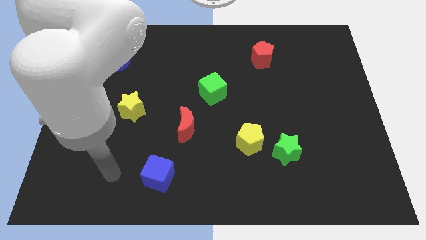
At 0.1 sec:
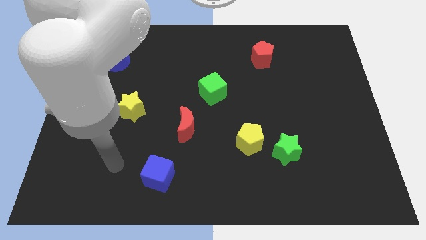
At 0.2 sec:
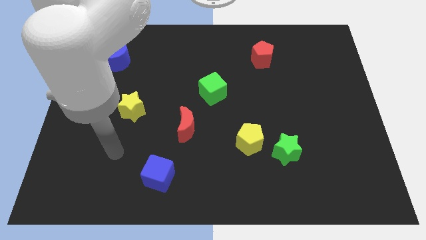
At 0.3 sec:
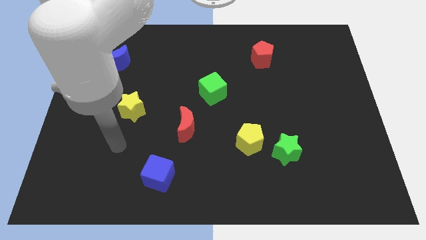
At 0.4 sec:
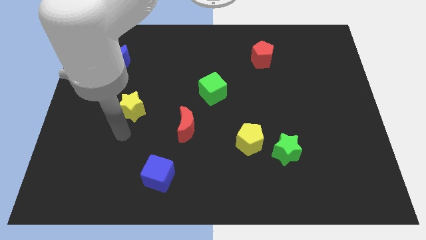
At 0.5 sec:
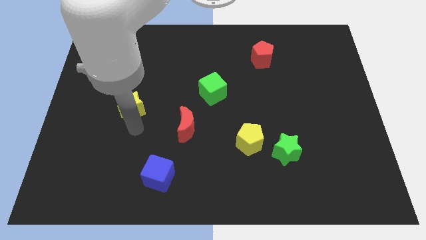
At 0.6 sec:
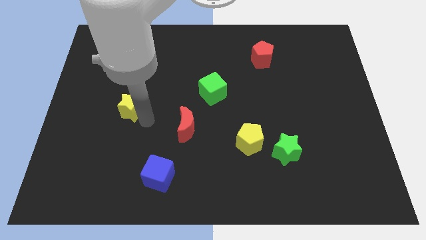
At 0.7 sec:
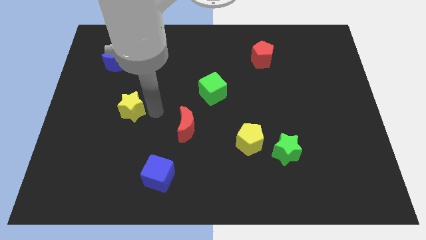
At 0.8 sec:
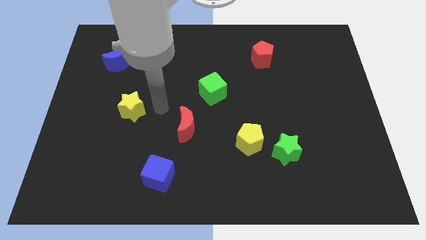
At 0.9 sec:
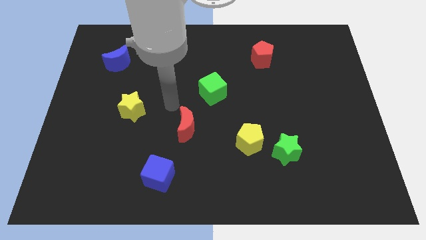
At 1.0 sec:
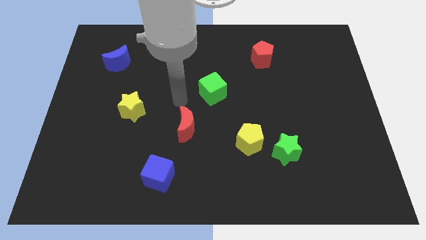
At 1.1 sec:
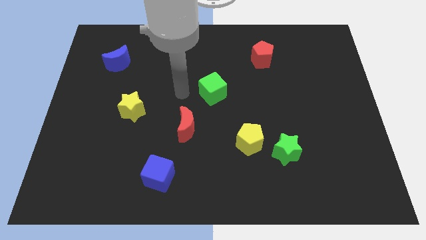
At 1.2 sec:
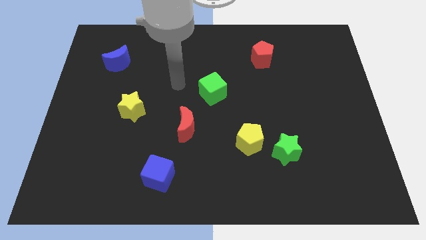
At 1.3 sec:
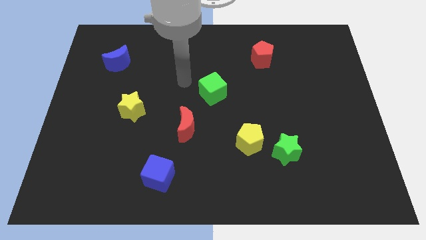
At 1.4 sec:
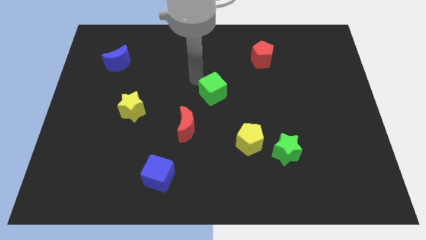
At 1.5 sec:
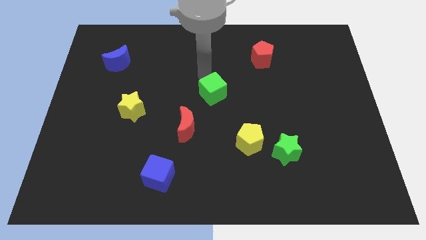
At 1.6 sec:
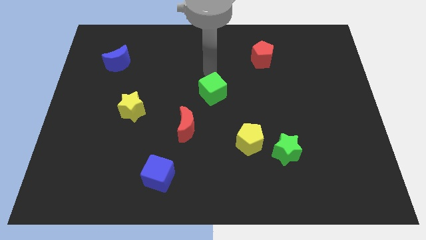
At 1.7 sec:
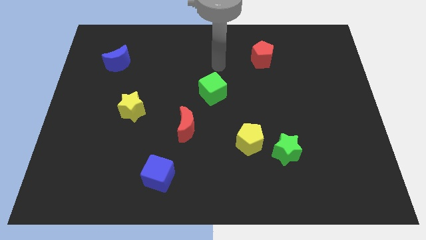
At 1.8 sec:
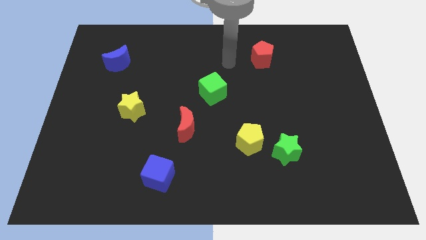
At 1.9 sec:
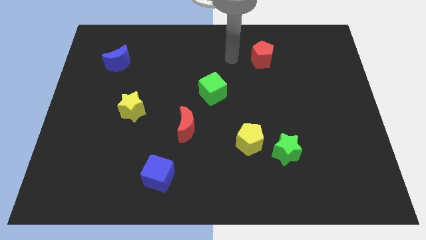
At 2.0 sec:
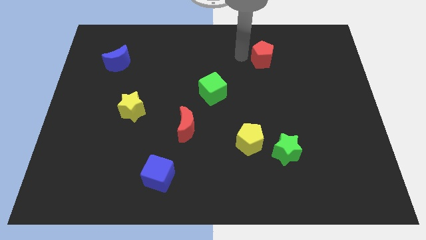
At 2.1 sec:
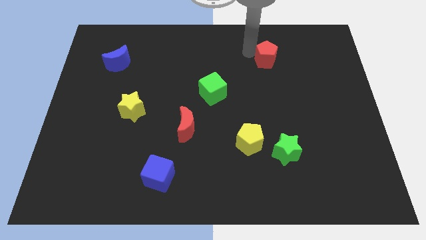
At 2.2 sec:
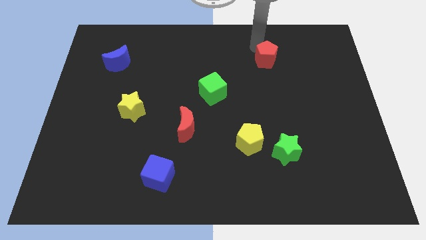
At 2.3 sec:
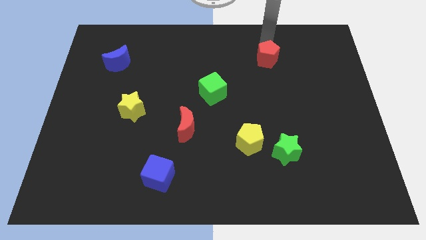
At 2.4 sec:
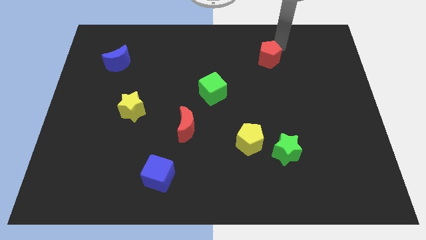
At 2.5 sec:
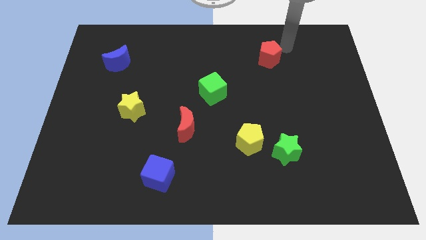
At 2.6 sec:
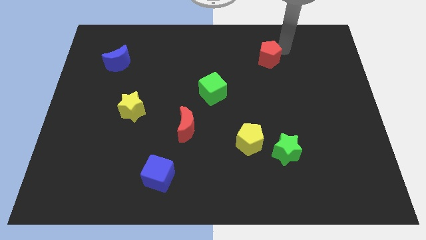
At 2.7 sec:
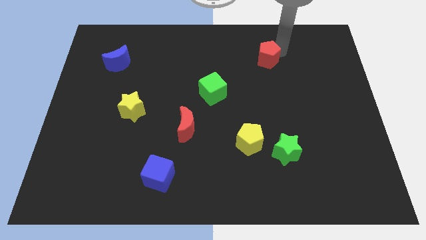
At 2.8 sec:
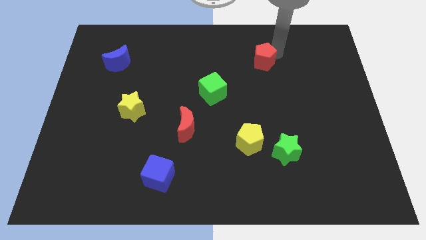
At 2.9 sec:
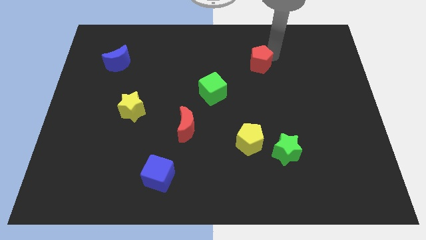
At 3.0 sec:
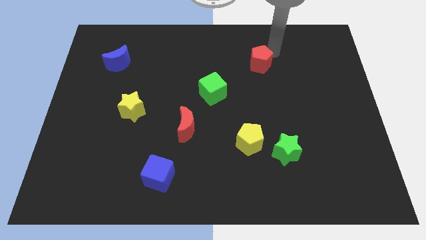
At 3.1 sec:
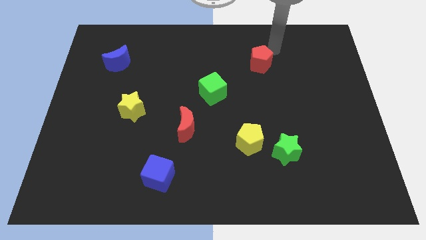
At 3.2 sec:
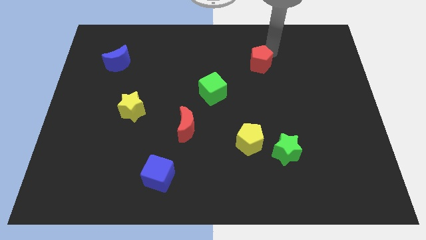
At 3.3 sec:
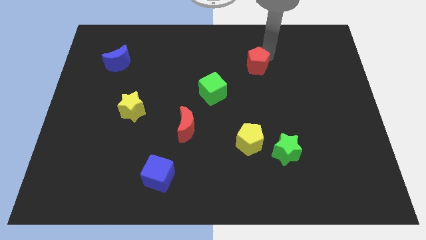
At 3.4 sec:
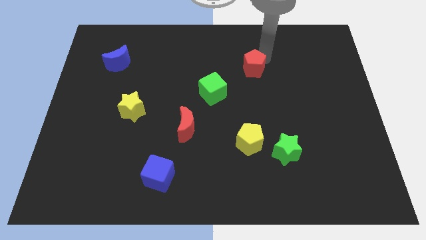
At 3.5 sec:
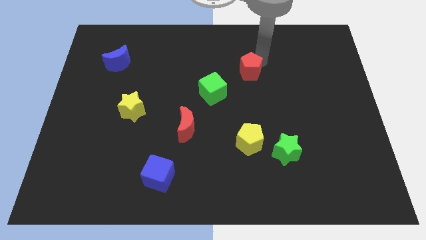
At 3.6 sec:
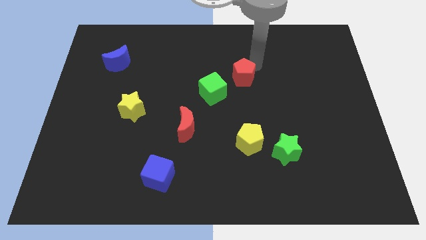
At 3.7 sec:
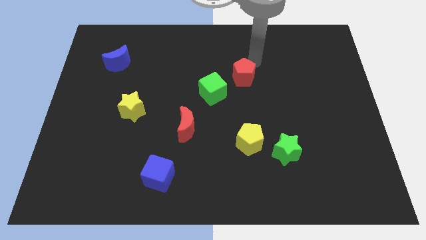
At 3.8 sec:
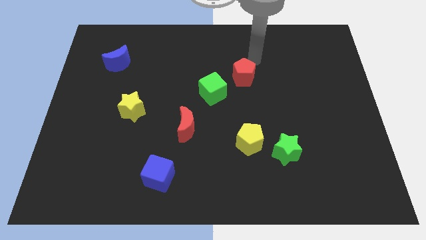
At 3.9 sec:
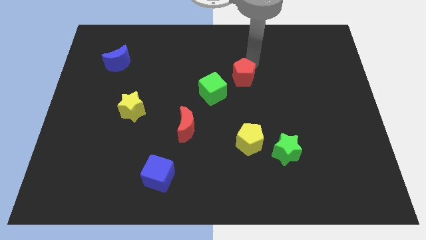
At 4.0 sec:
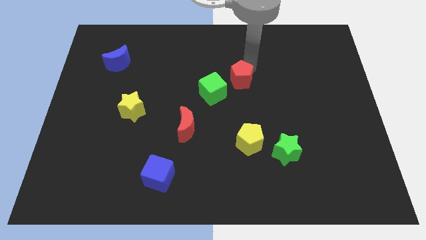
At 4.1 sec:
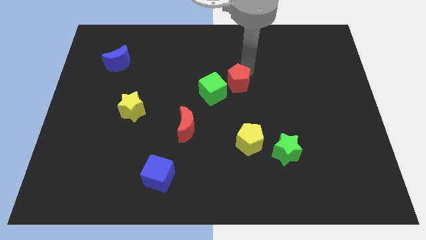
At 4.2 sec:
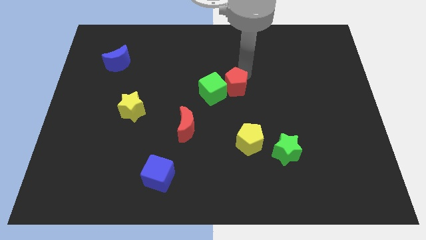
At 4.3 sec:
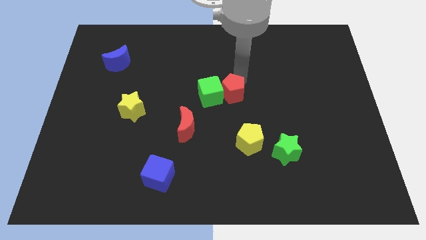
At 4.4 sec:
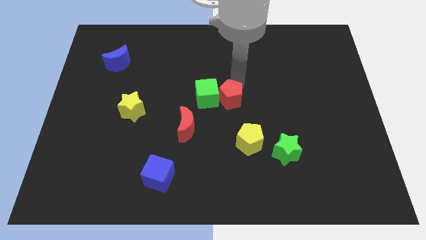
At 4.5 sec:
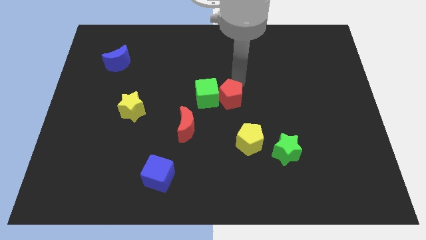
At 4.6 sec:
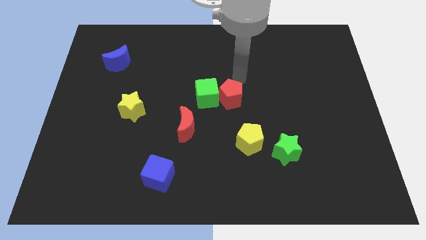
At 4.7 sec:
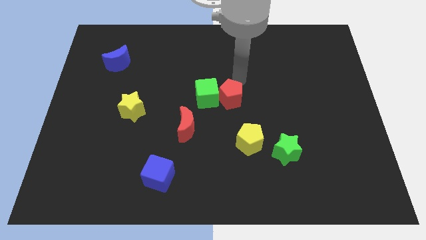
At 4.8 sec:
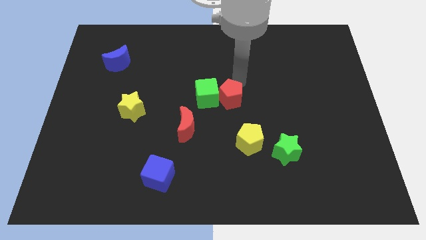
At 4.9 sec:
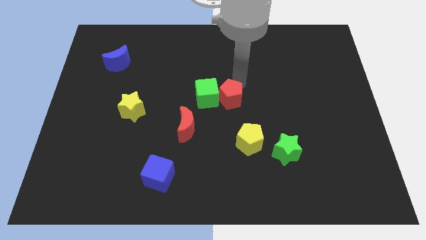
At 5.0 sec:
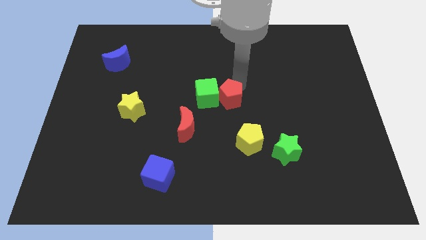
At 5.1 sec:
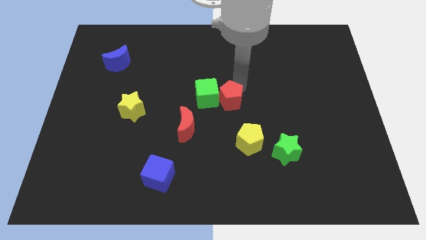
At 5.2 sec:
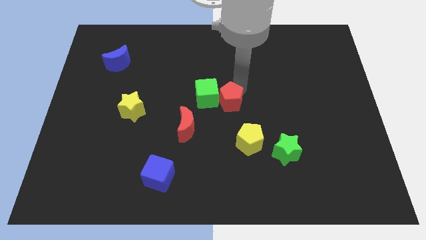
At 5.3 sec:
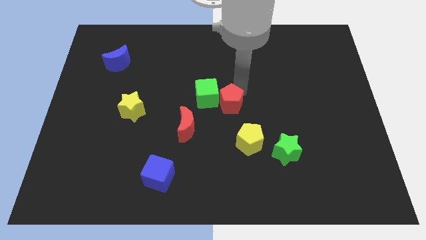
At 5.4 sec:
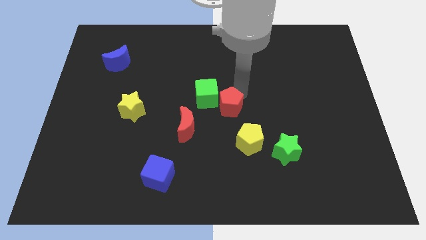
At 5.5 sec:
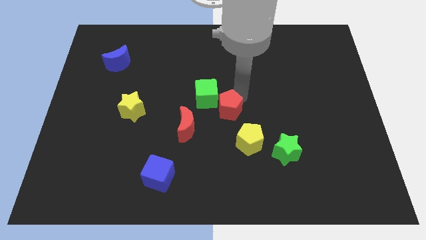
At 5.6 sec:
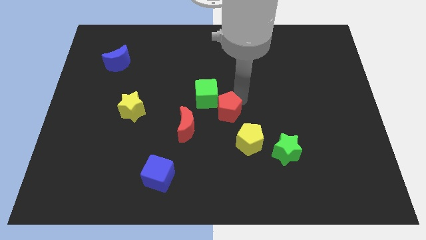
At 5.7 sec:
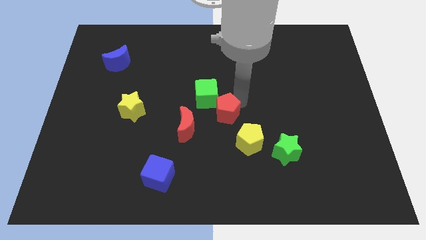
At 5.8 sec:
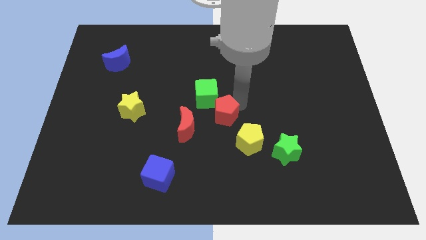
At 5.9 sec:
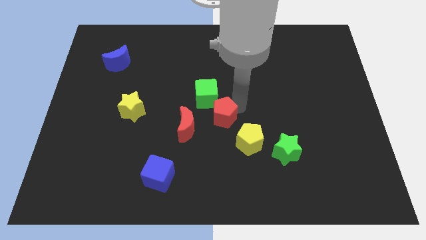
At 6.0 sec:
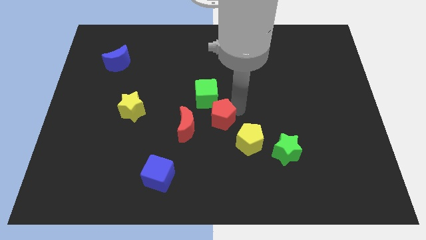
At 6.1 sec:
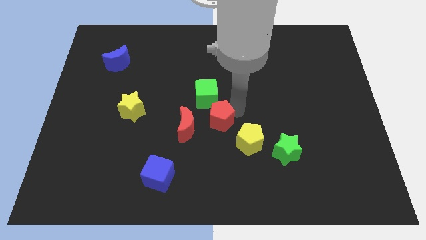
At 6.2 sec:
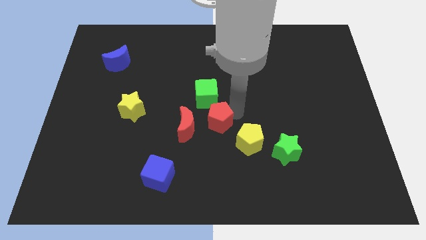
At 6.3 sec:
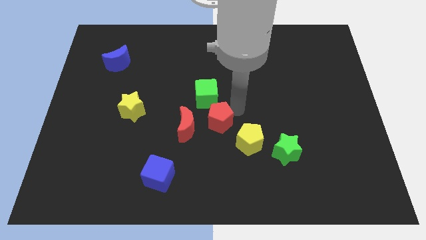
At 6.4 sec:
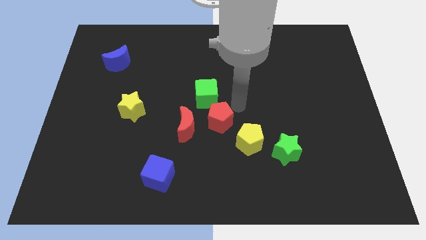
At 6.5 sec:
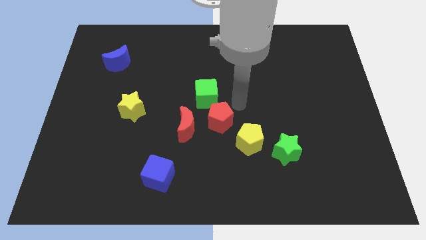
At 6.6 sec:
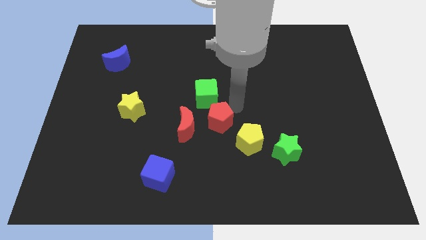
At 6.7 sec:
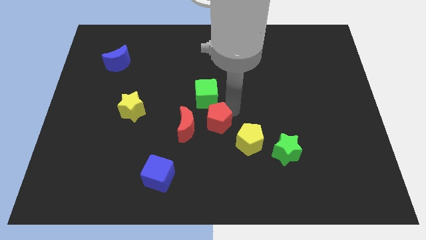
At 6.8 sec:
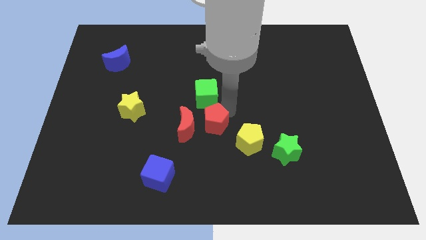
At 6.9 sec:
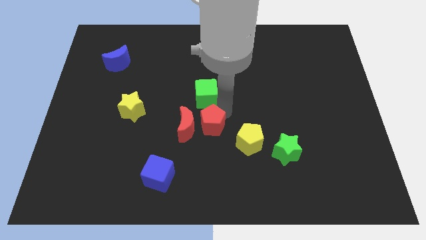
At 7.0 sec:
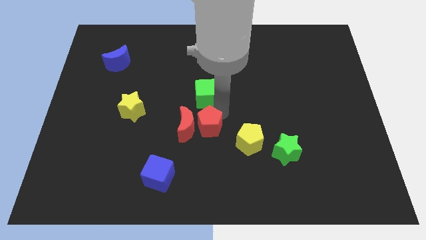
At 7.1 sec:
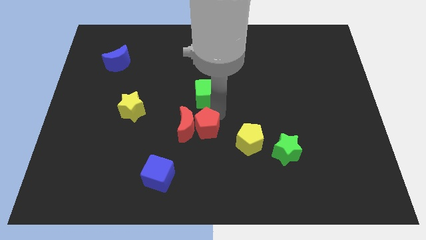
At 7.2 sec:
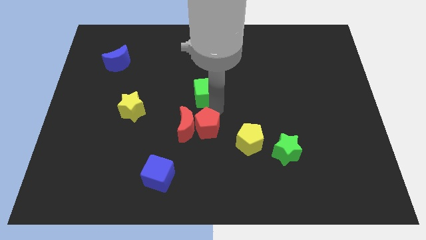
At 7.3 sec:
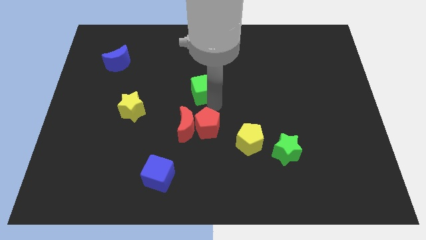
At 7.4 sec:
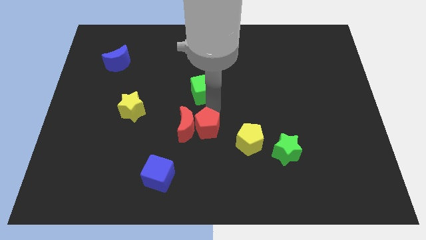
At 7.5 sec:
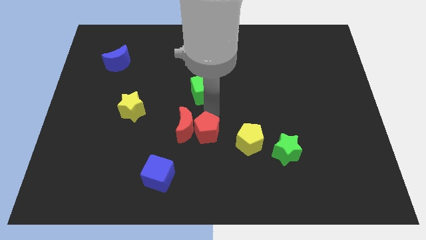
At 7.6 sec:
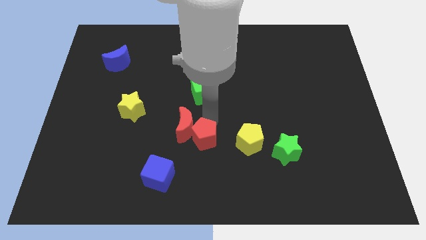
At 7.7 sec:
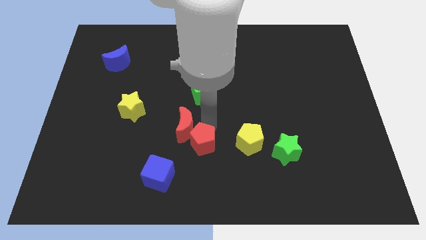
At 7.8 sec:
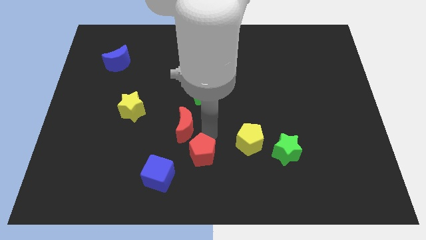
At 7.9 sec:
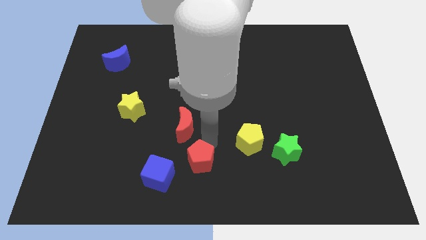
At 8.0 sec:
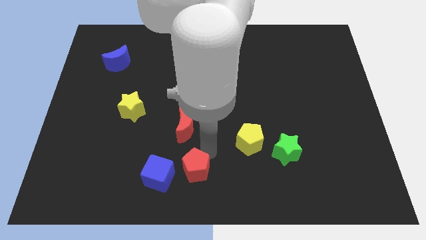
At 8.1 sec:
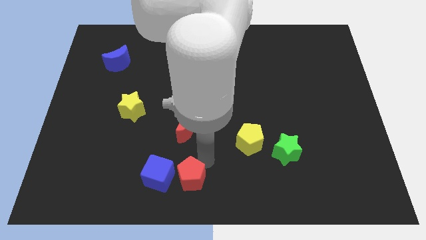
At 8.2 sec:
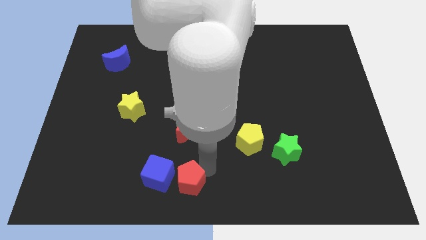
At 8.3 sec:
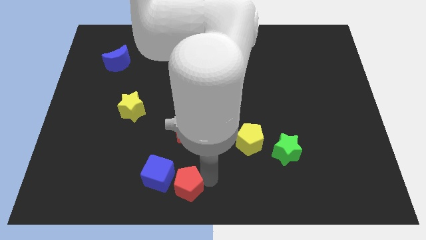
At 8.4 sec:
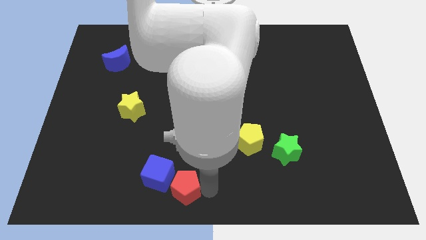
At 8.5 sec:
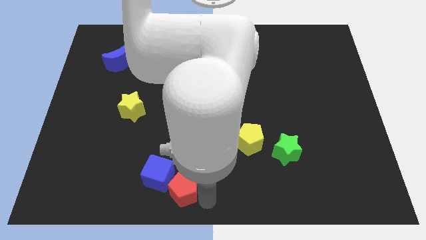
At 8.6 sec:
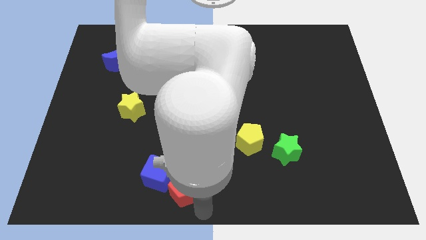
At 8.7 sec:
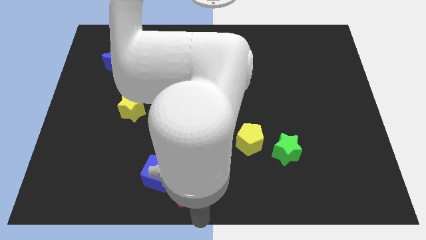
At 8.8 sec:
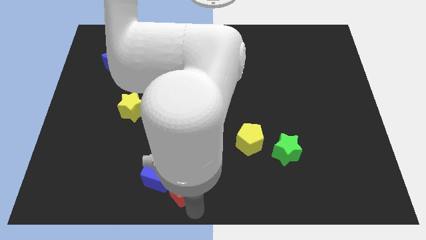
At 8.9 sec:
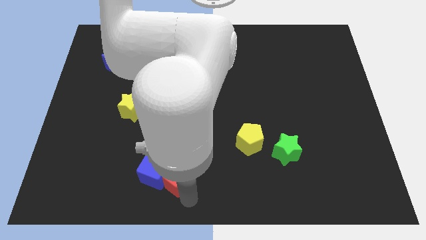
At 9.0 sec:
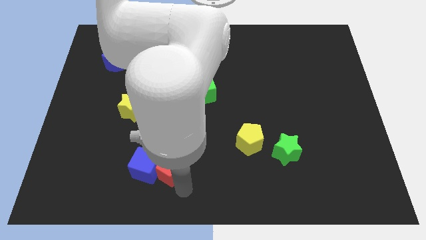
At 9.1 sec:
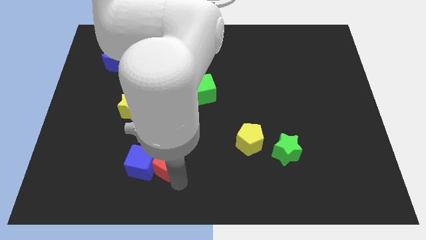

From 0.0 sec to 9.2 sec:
move the red pentagon to the bottom left side of the red moon
